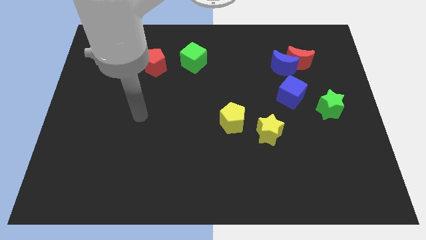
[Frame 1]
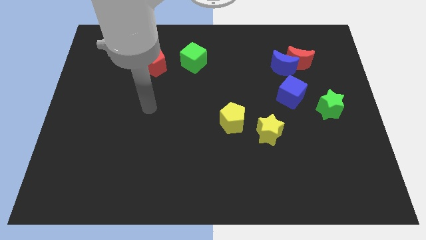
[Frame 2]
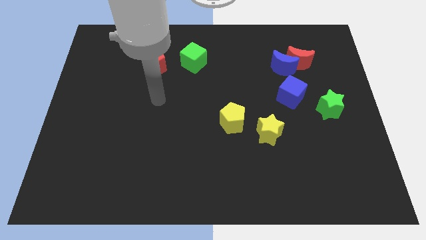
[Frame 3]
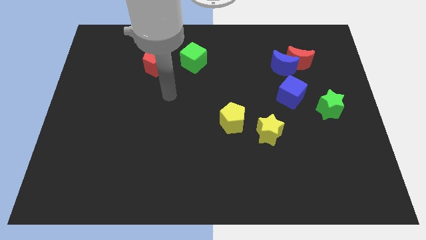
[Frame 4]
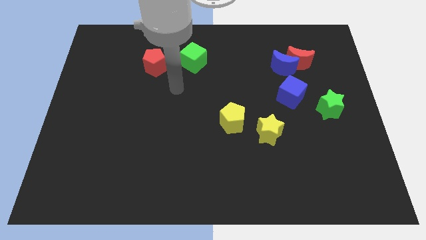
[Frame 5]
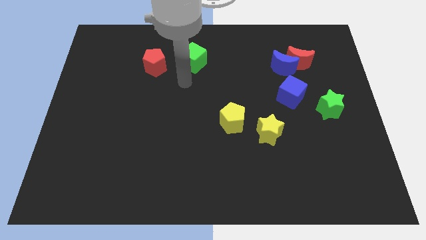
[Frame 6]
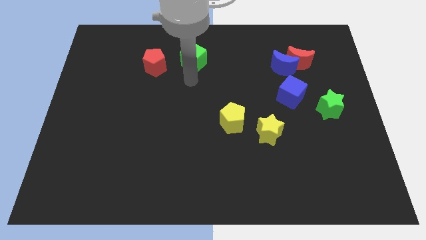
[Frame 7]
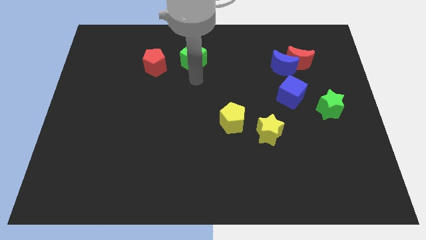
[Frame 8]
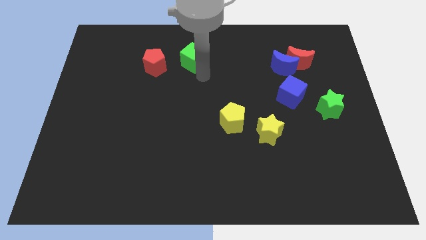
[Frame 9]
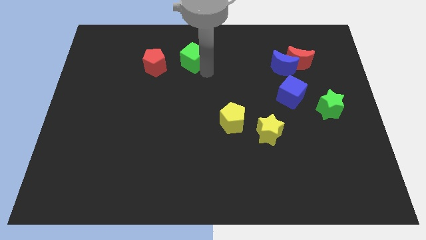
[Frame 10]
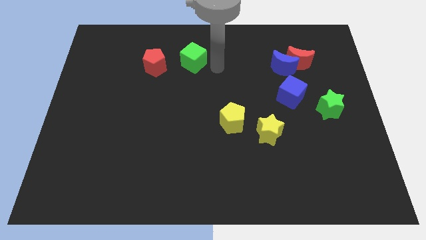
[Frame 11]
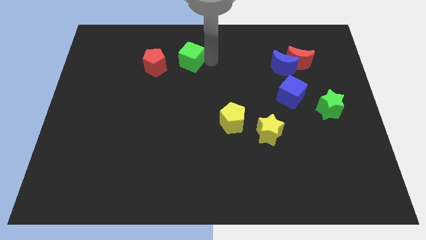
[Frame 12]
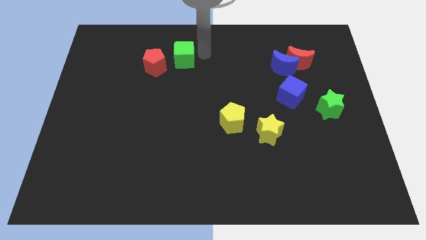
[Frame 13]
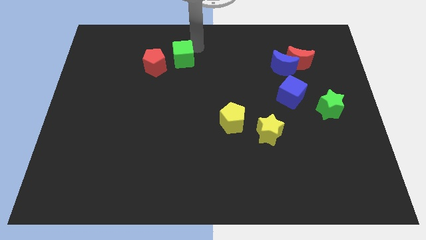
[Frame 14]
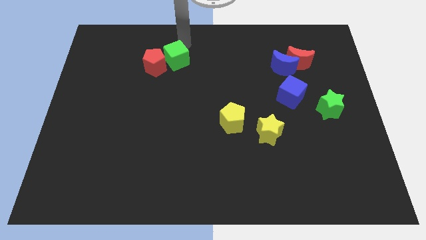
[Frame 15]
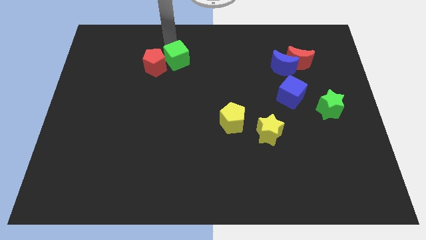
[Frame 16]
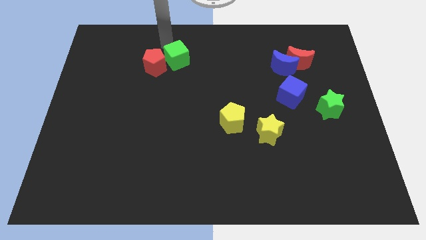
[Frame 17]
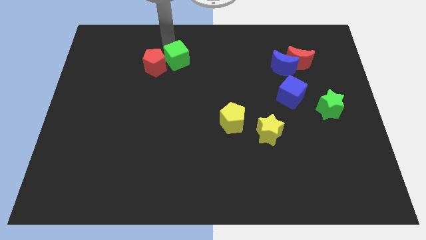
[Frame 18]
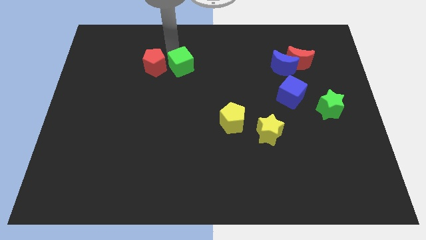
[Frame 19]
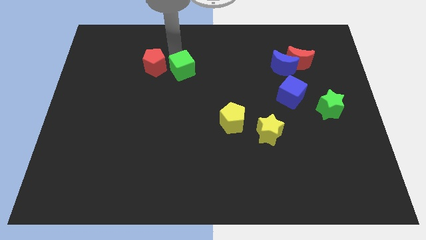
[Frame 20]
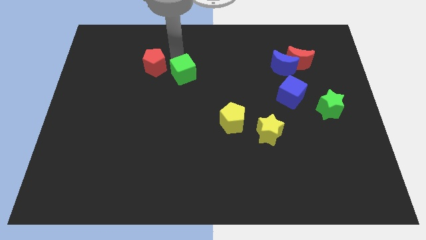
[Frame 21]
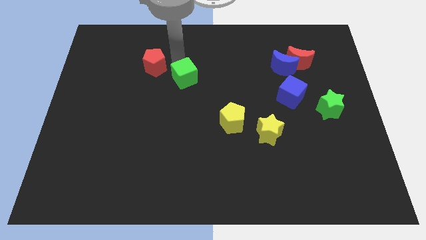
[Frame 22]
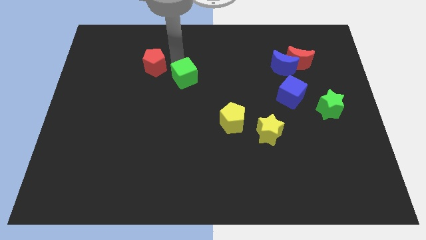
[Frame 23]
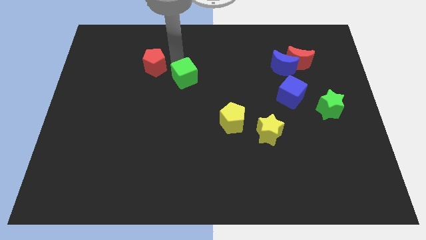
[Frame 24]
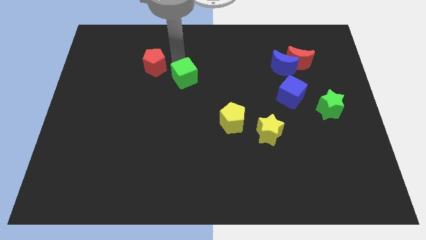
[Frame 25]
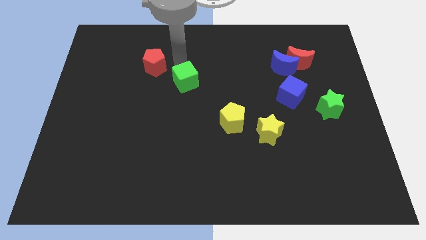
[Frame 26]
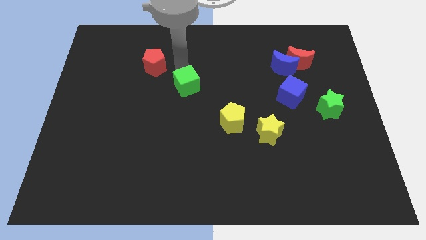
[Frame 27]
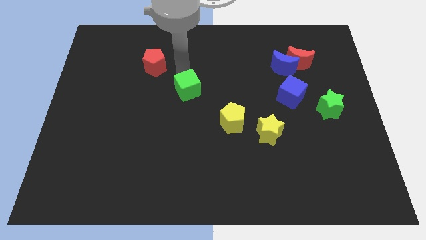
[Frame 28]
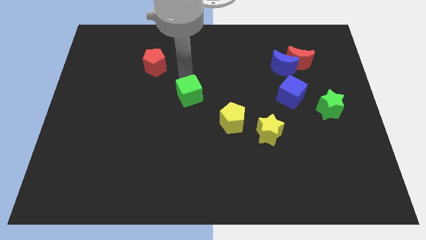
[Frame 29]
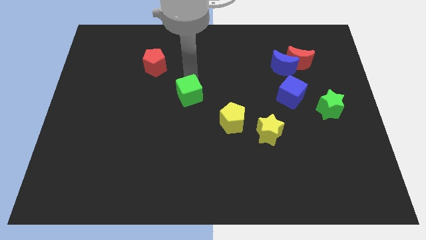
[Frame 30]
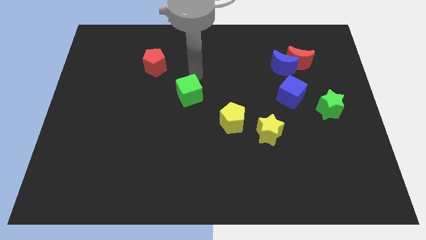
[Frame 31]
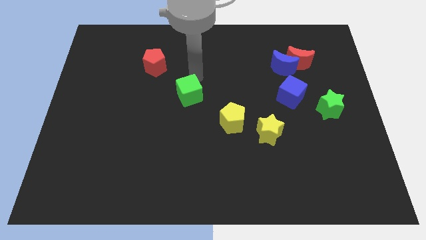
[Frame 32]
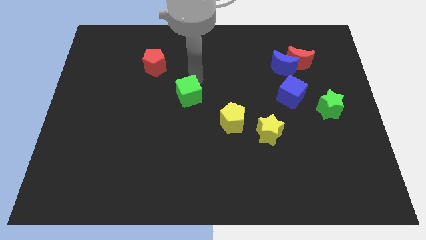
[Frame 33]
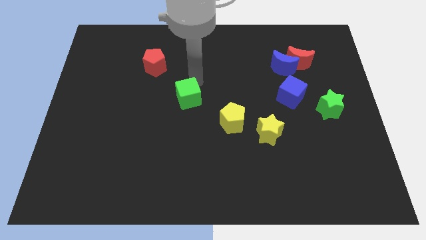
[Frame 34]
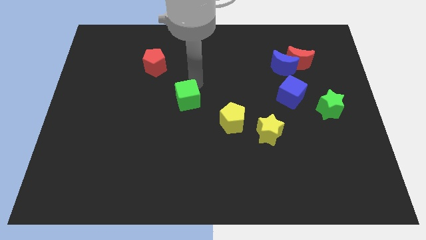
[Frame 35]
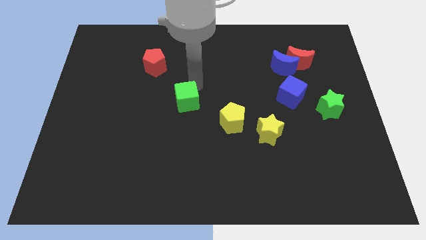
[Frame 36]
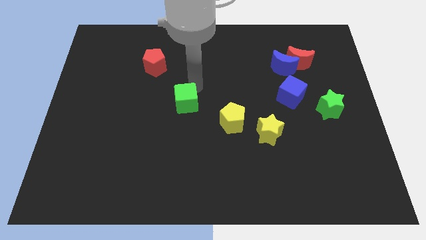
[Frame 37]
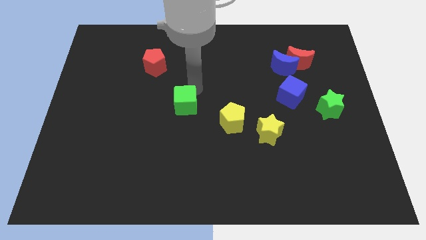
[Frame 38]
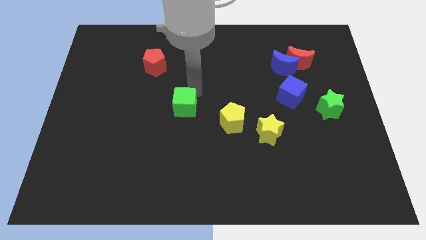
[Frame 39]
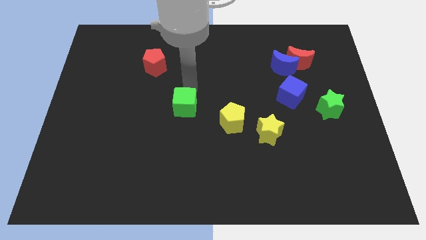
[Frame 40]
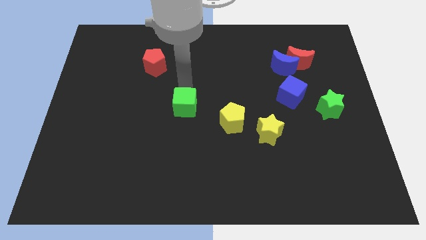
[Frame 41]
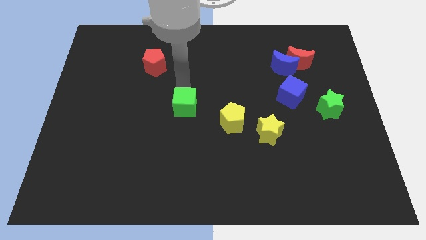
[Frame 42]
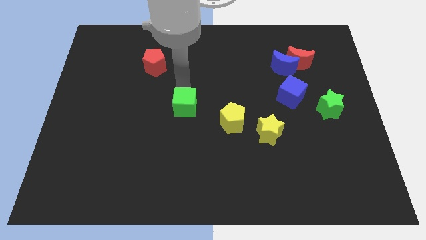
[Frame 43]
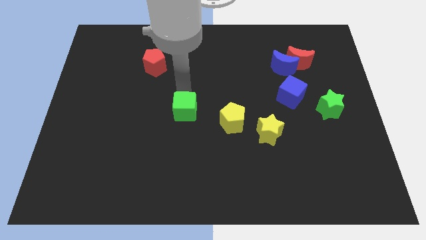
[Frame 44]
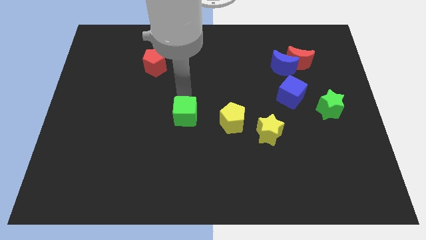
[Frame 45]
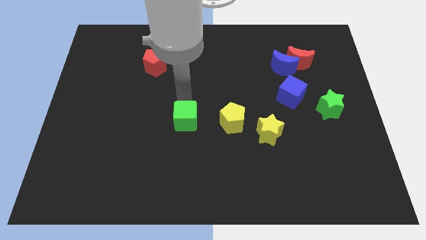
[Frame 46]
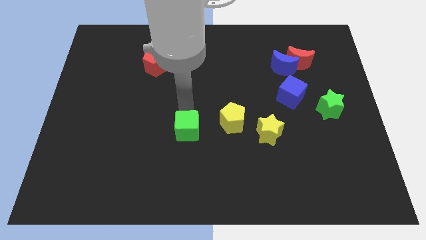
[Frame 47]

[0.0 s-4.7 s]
push the green cube downwards

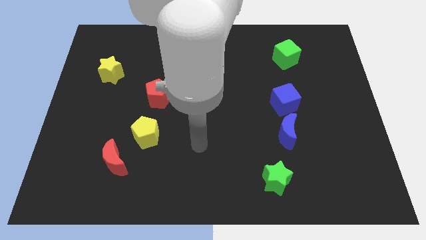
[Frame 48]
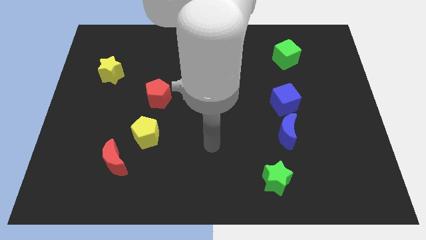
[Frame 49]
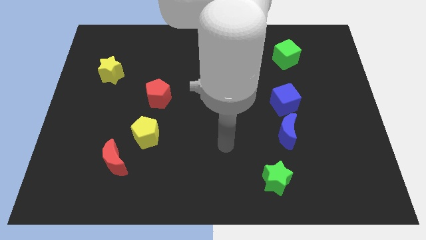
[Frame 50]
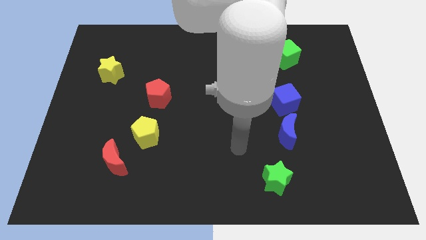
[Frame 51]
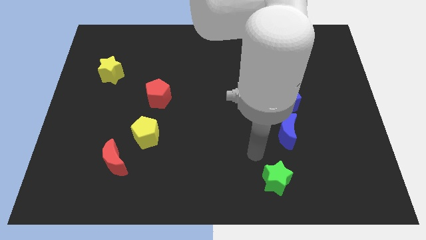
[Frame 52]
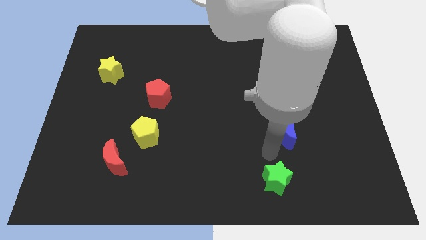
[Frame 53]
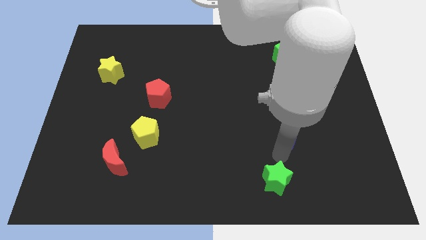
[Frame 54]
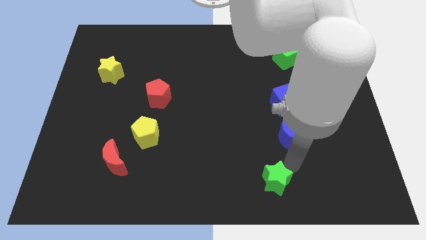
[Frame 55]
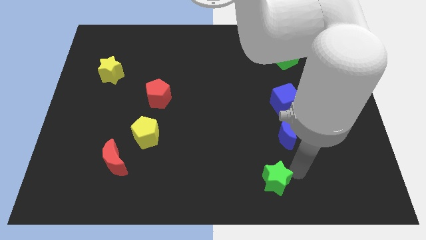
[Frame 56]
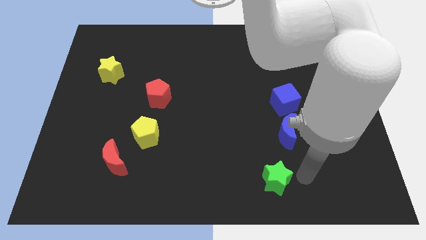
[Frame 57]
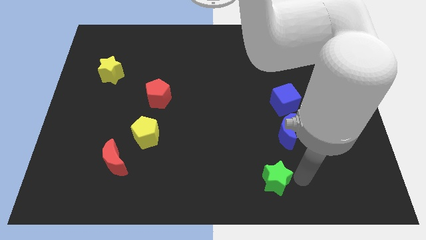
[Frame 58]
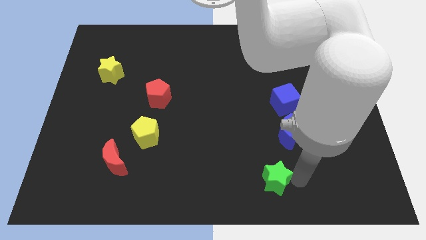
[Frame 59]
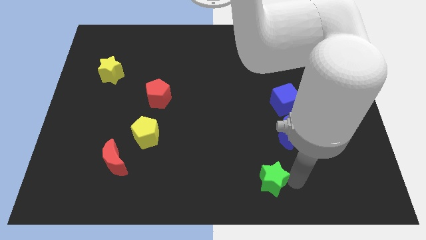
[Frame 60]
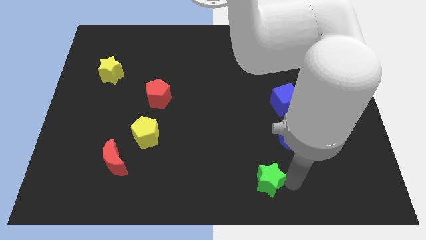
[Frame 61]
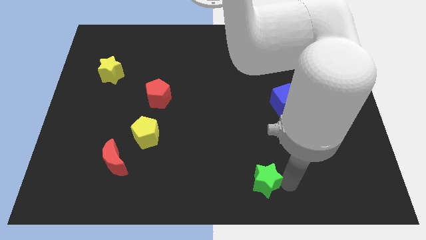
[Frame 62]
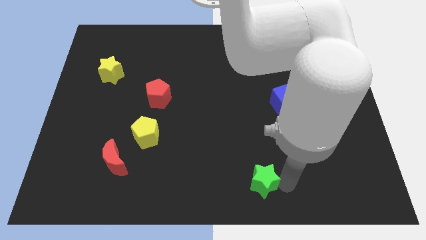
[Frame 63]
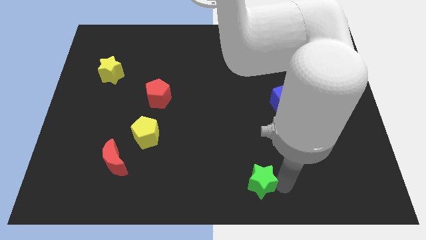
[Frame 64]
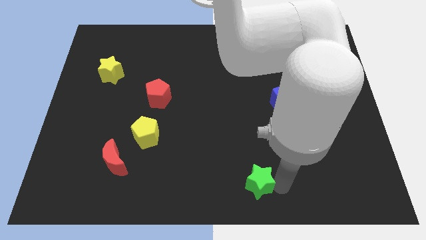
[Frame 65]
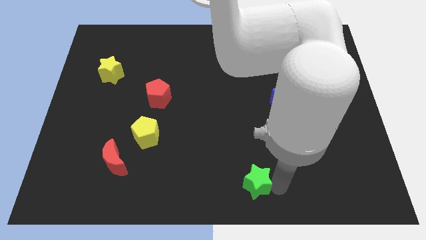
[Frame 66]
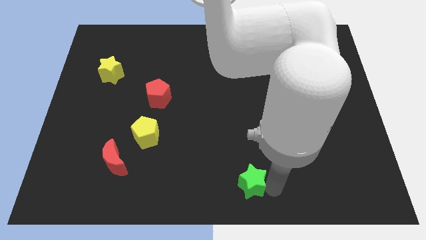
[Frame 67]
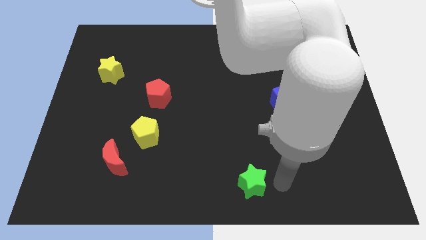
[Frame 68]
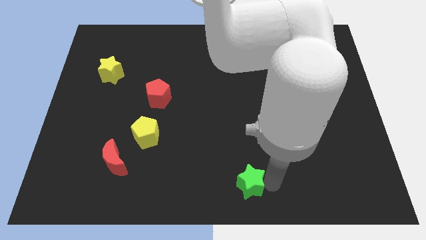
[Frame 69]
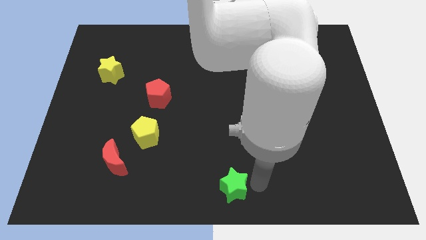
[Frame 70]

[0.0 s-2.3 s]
slide the green star to the left a little bit

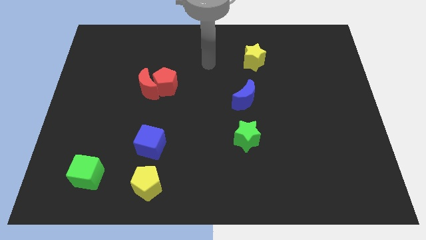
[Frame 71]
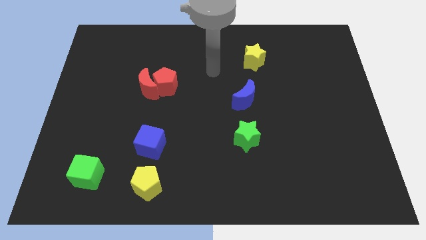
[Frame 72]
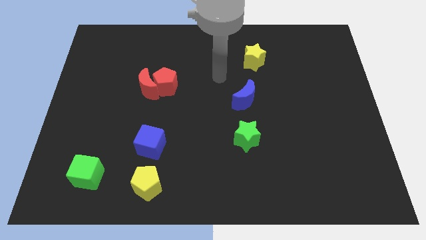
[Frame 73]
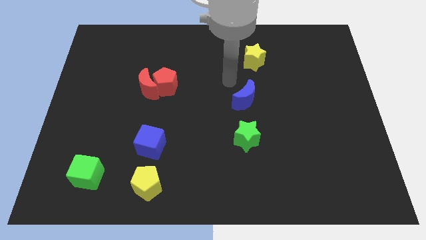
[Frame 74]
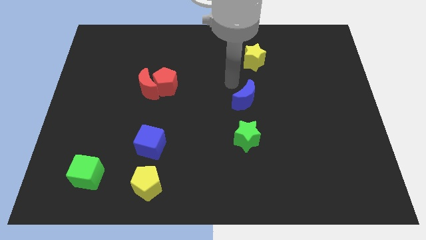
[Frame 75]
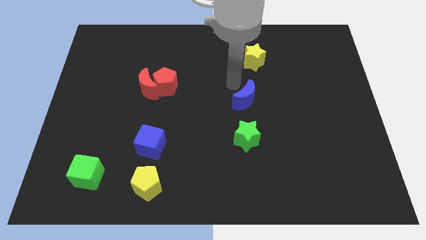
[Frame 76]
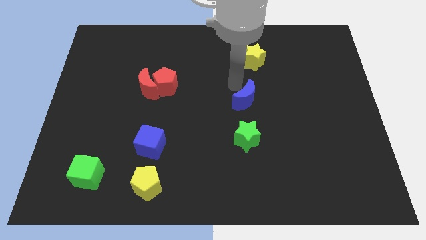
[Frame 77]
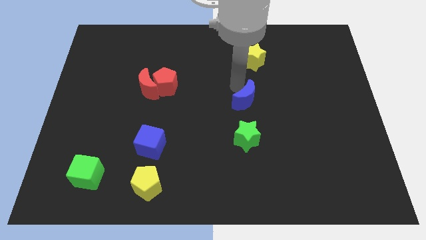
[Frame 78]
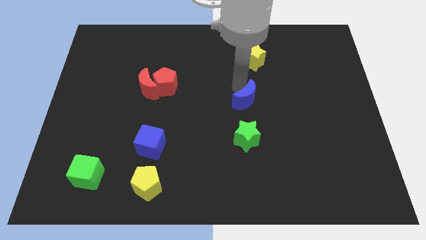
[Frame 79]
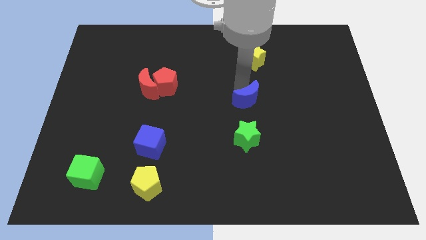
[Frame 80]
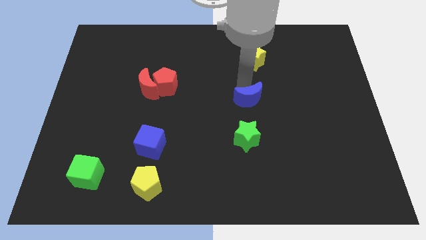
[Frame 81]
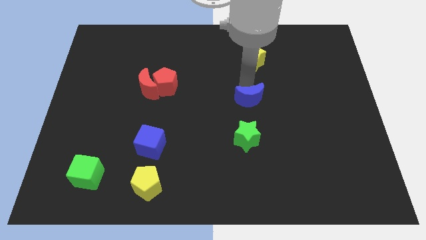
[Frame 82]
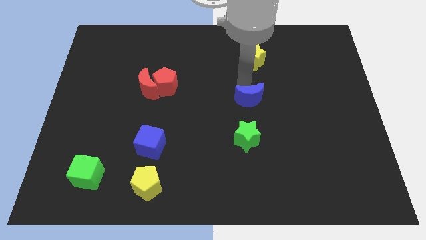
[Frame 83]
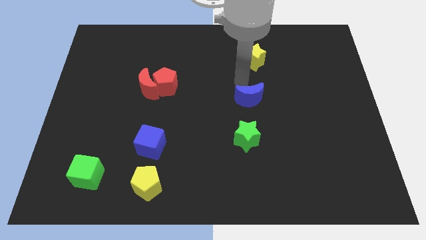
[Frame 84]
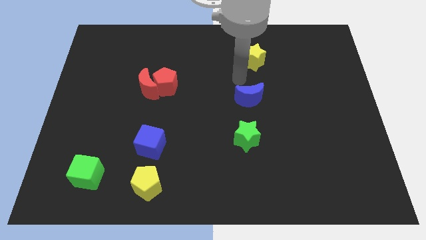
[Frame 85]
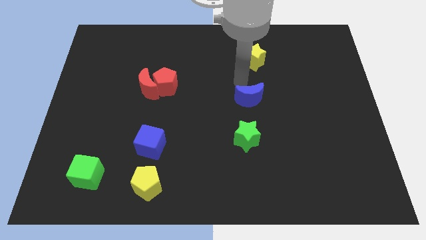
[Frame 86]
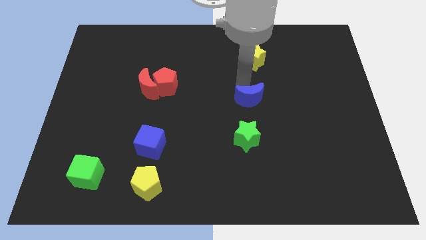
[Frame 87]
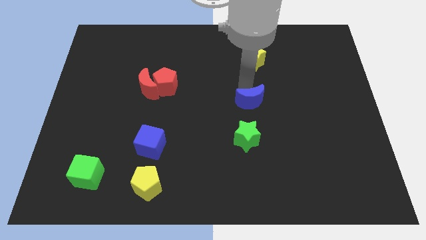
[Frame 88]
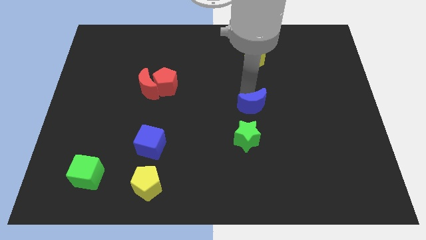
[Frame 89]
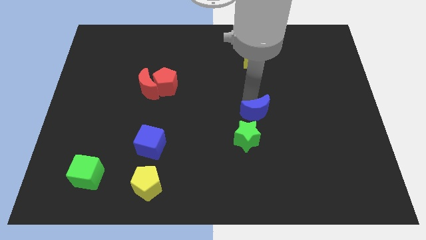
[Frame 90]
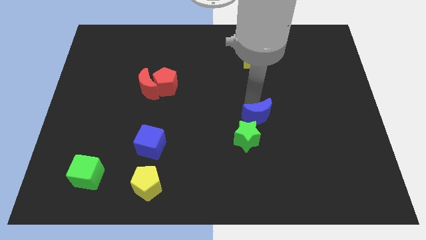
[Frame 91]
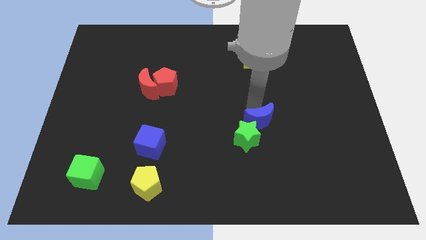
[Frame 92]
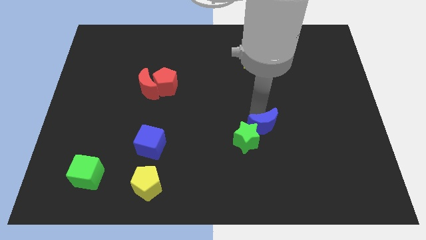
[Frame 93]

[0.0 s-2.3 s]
move the blue moon slightly downwards
